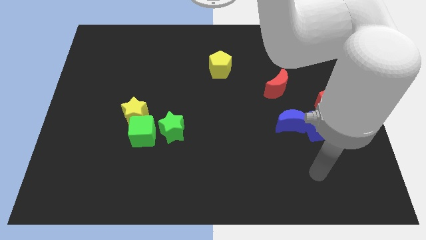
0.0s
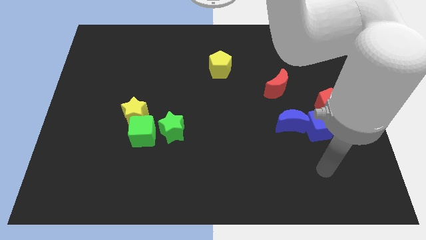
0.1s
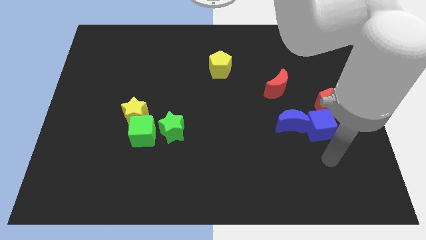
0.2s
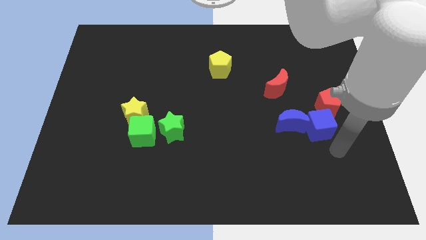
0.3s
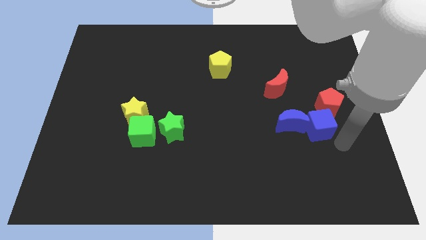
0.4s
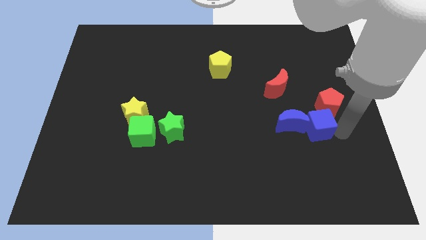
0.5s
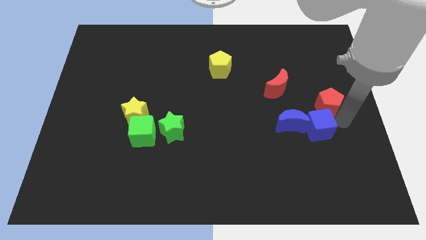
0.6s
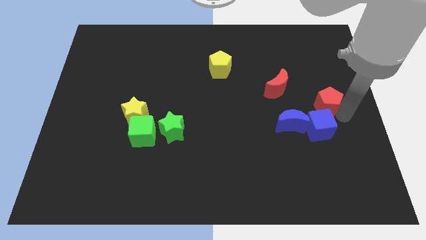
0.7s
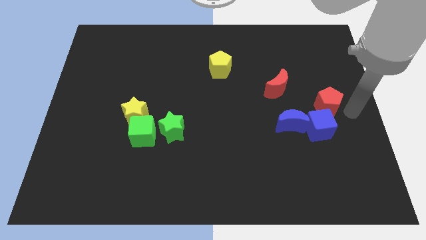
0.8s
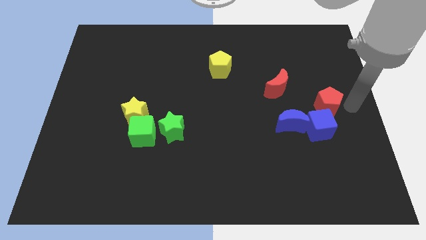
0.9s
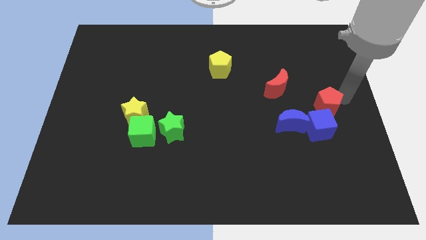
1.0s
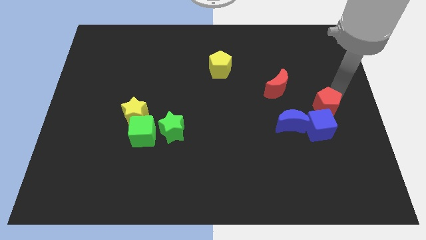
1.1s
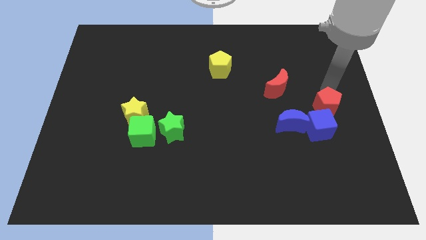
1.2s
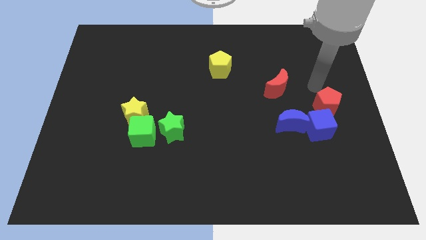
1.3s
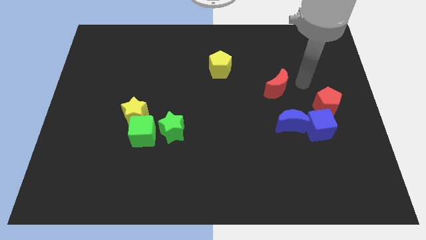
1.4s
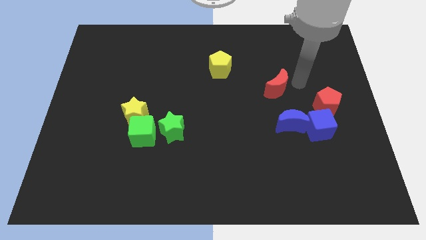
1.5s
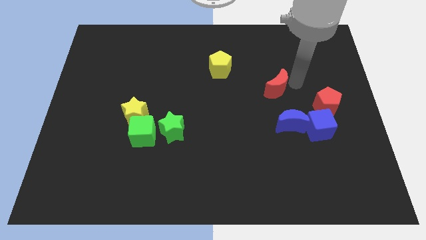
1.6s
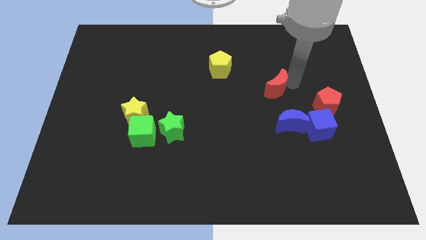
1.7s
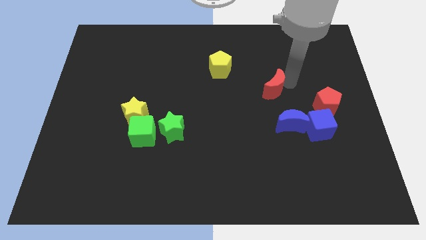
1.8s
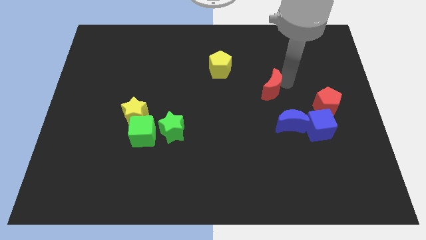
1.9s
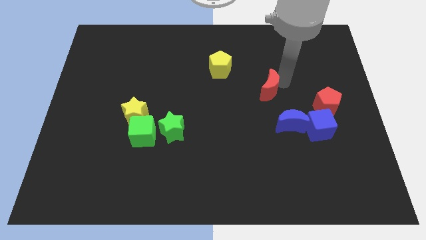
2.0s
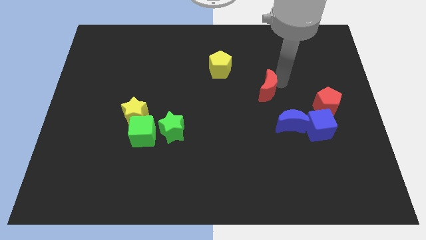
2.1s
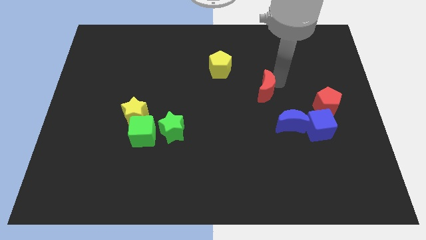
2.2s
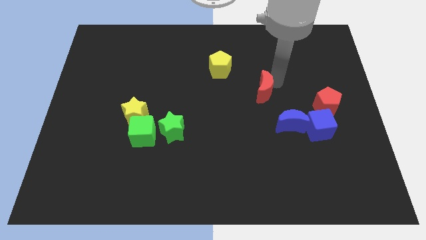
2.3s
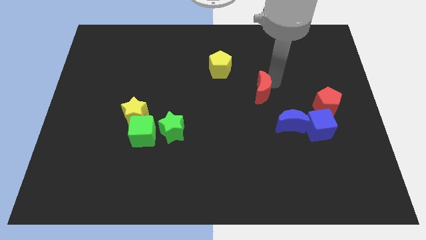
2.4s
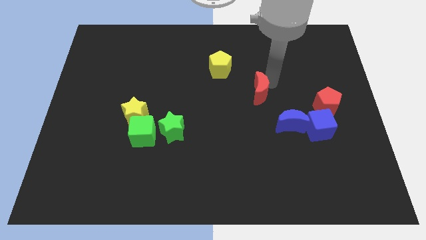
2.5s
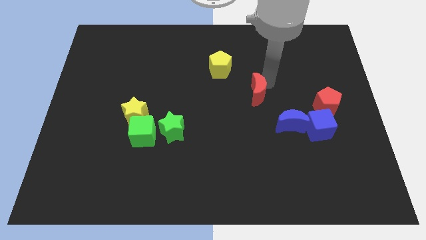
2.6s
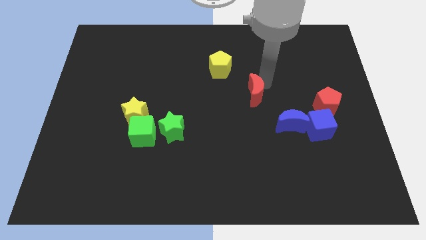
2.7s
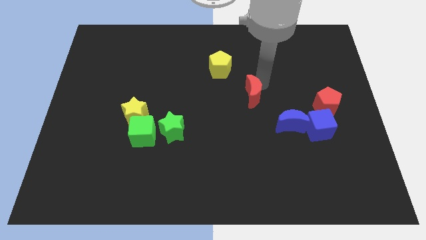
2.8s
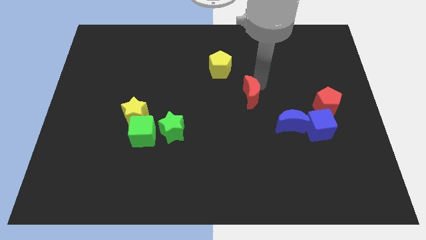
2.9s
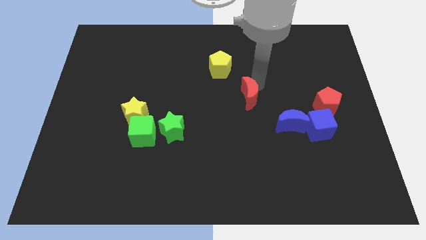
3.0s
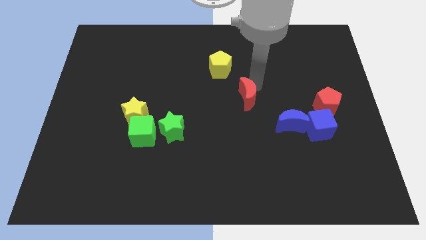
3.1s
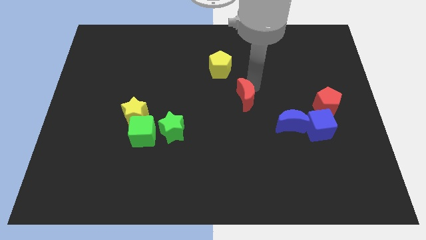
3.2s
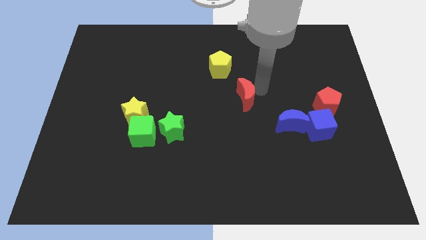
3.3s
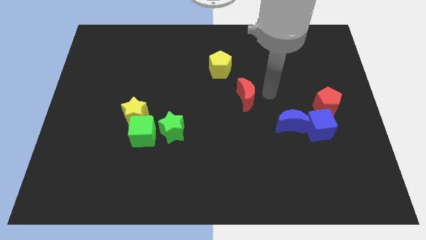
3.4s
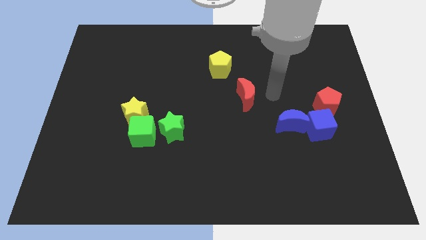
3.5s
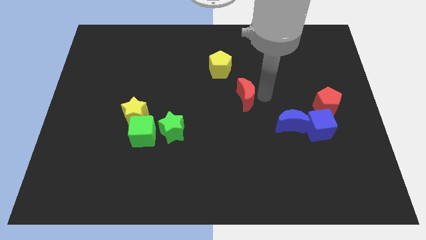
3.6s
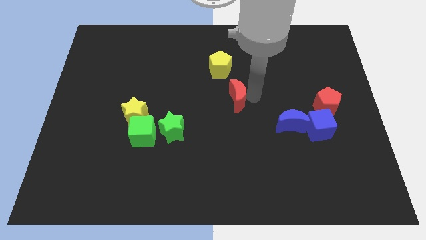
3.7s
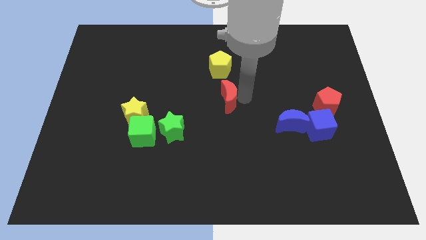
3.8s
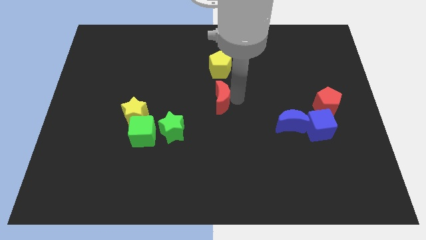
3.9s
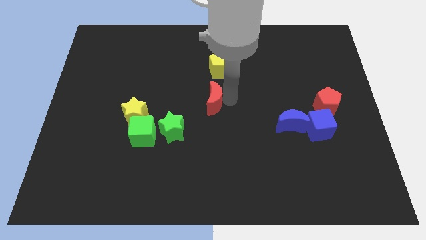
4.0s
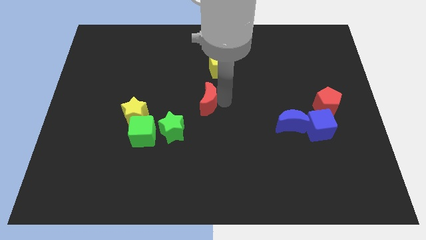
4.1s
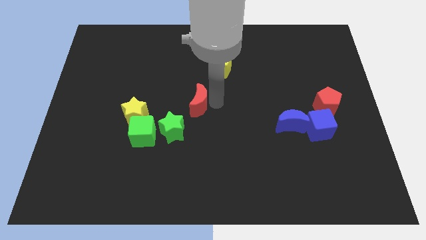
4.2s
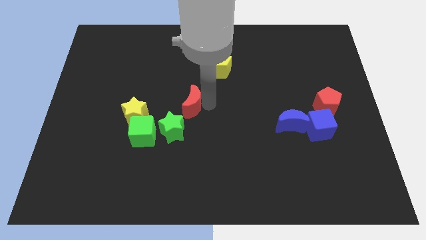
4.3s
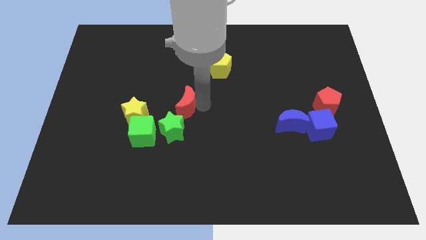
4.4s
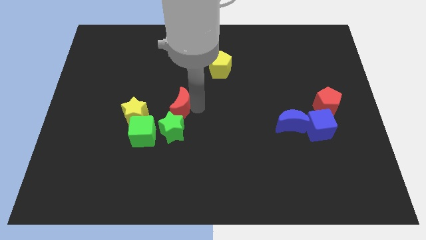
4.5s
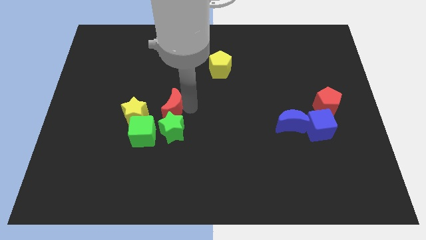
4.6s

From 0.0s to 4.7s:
slide the red moon diagonally up and to the left of the green star

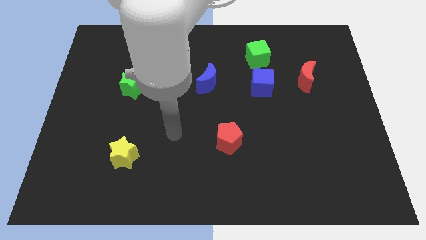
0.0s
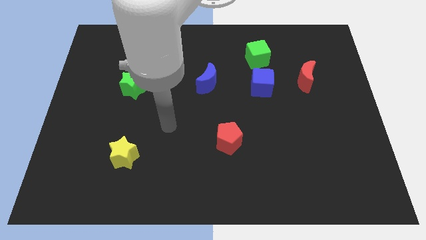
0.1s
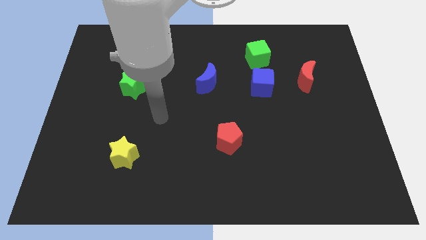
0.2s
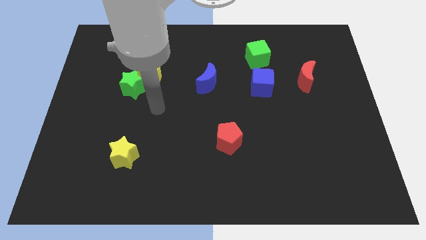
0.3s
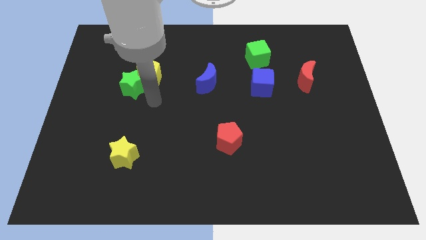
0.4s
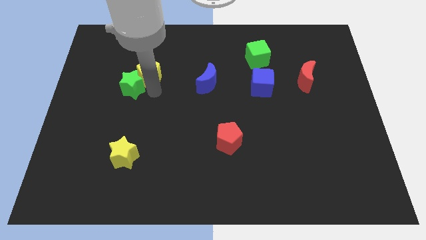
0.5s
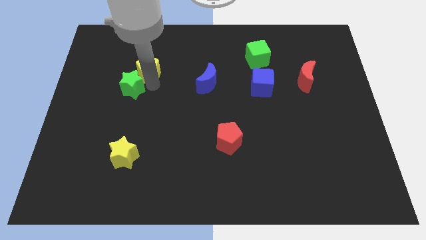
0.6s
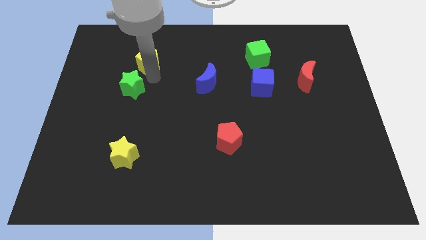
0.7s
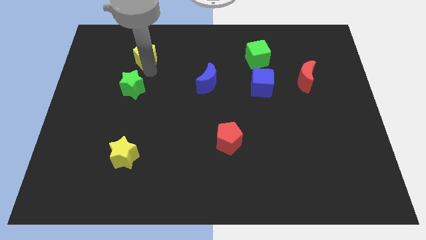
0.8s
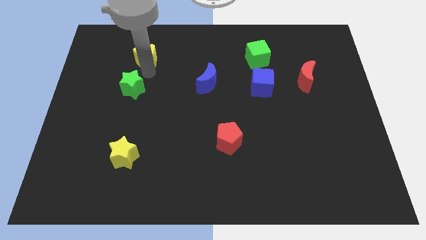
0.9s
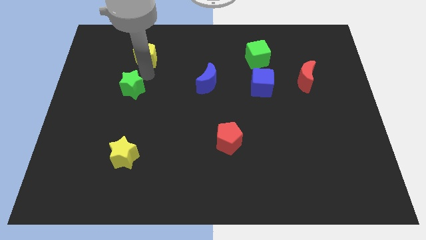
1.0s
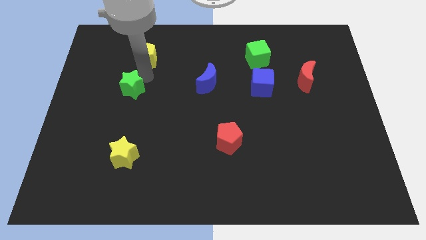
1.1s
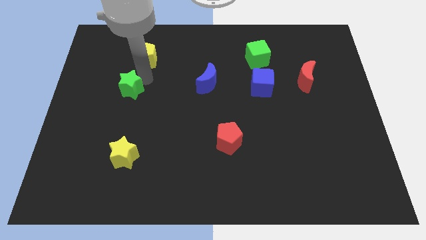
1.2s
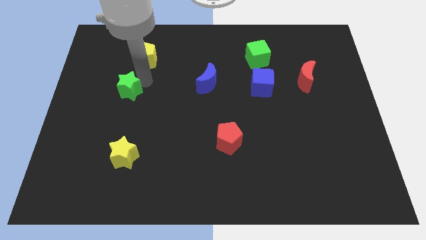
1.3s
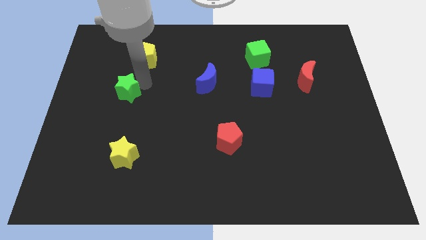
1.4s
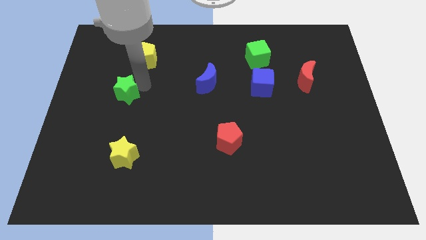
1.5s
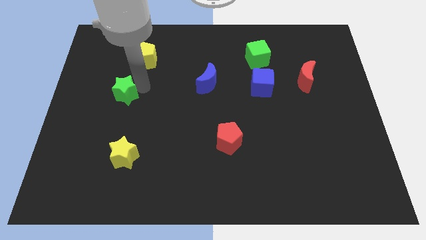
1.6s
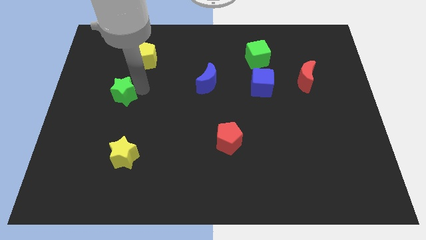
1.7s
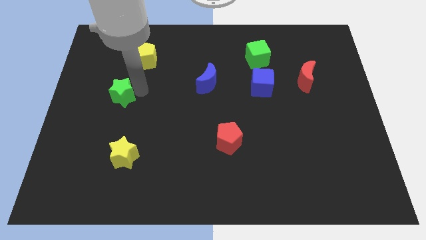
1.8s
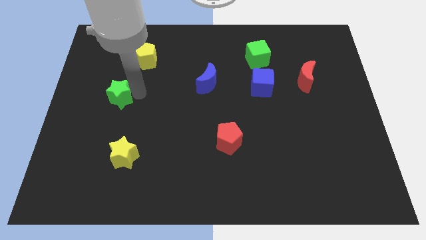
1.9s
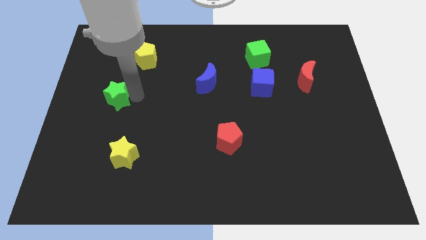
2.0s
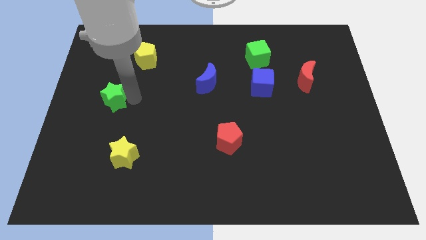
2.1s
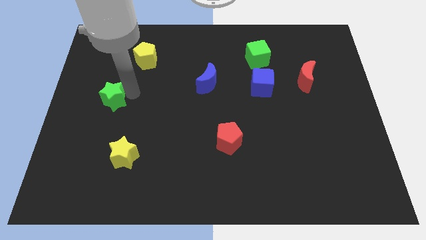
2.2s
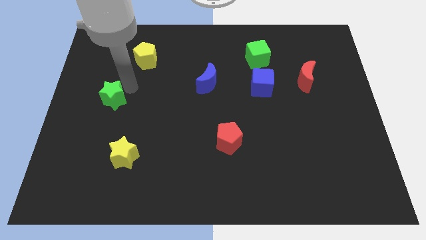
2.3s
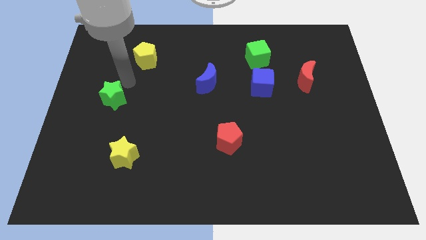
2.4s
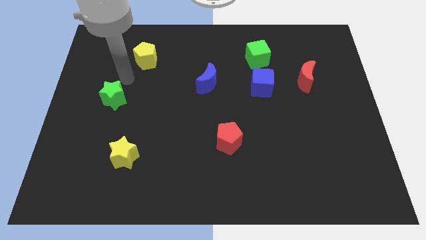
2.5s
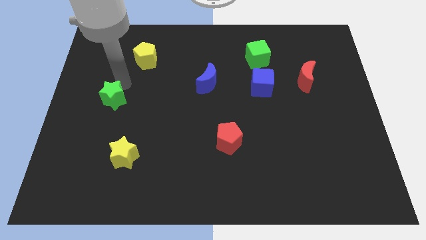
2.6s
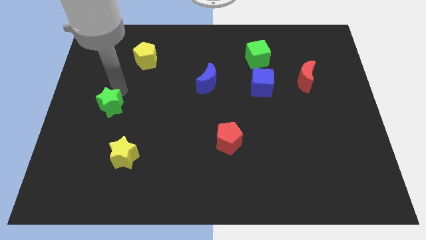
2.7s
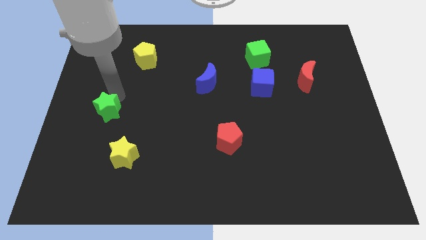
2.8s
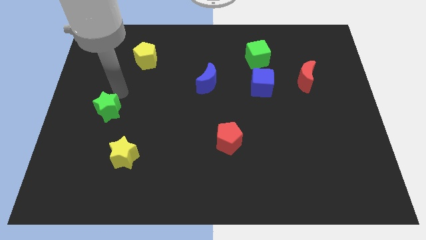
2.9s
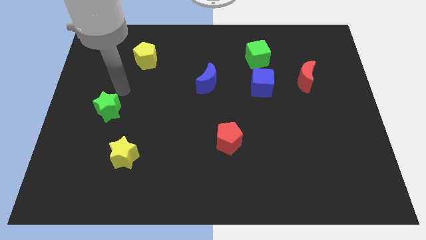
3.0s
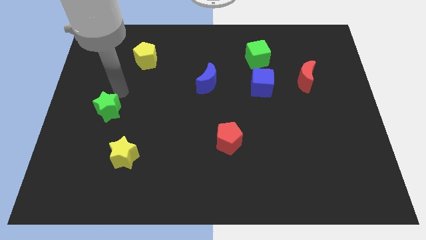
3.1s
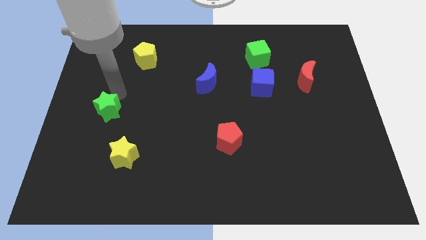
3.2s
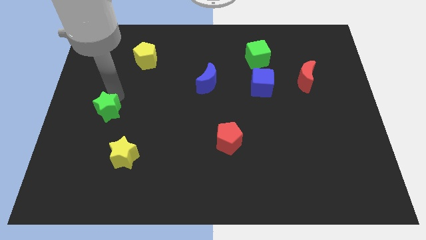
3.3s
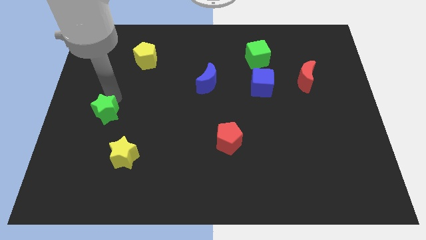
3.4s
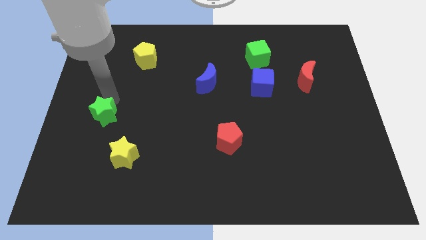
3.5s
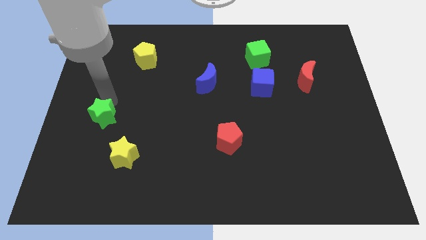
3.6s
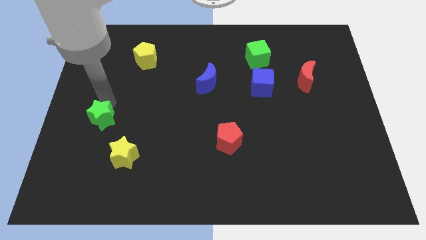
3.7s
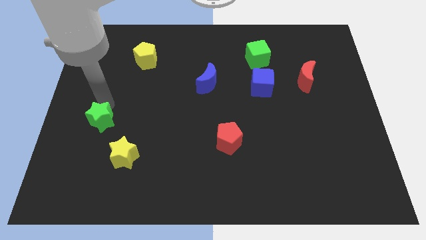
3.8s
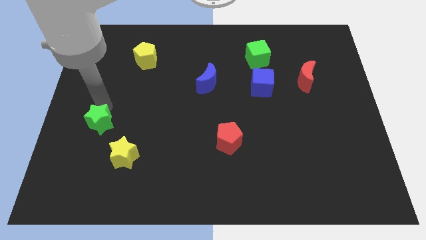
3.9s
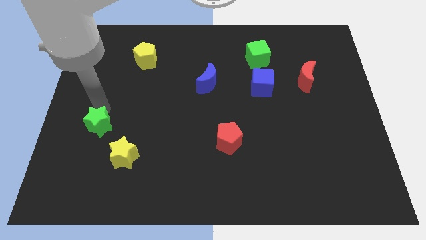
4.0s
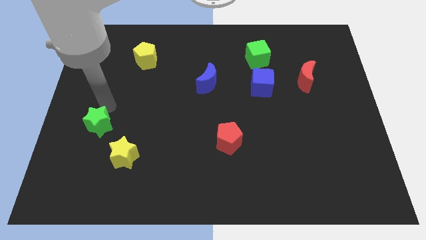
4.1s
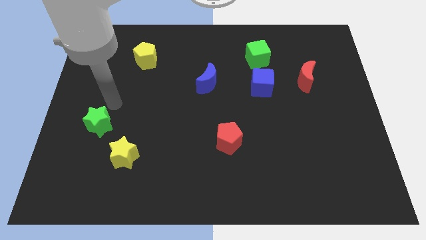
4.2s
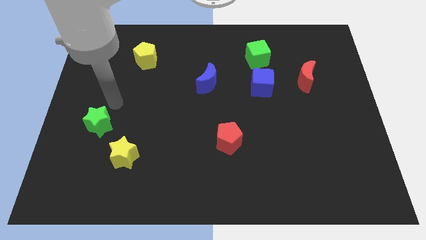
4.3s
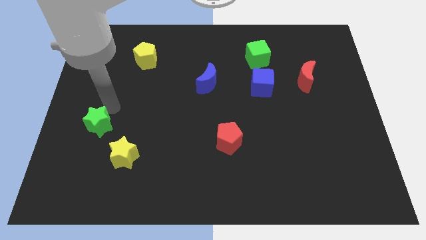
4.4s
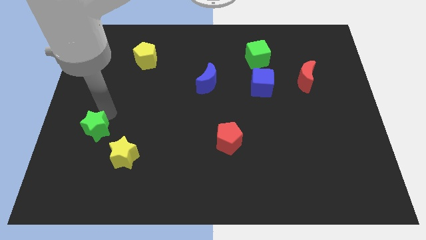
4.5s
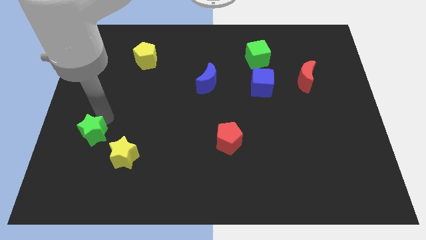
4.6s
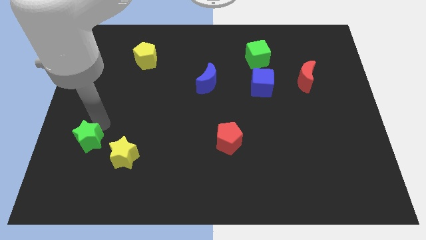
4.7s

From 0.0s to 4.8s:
push the green star to the left of the yellow star
